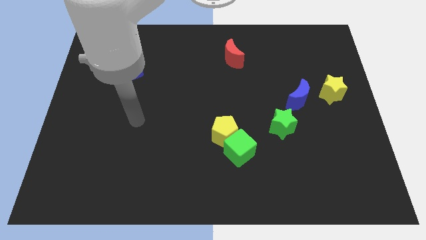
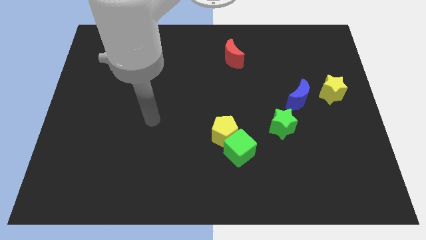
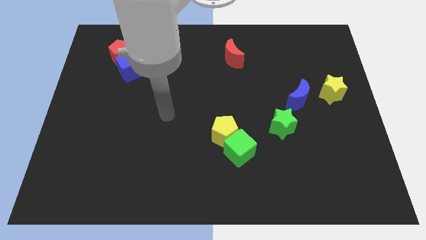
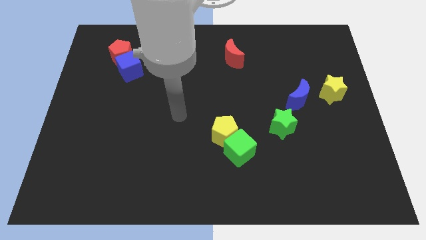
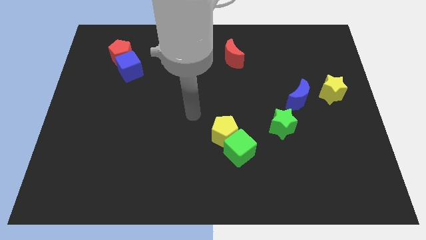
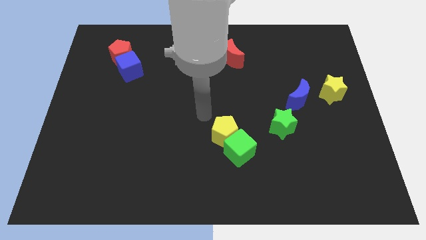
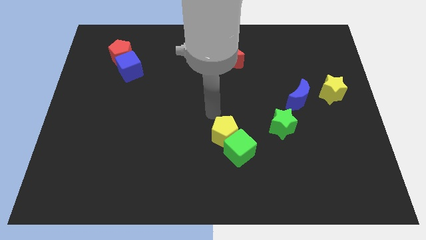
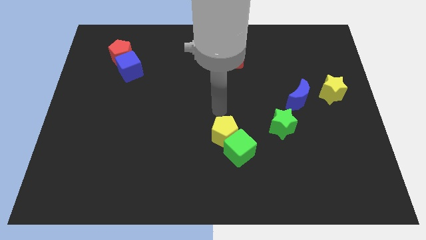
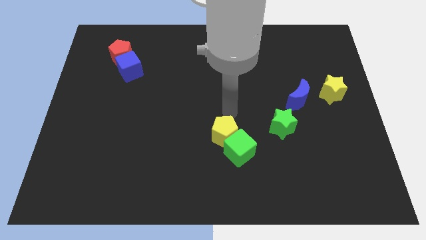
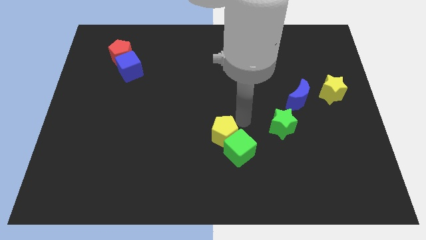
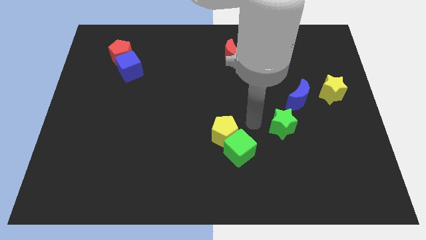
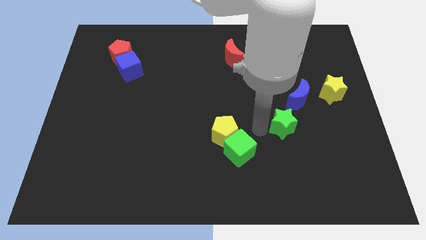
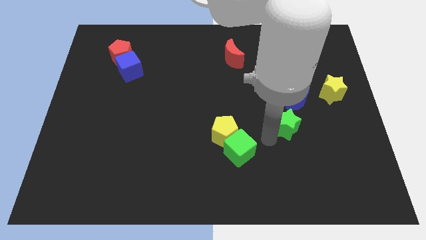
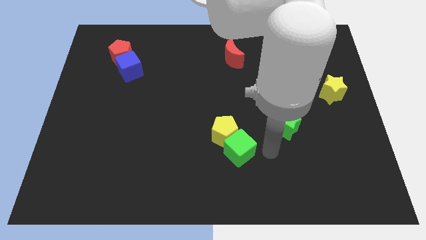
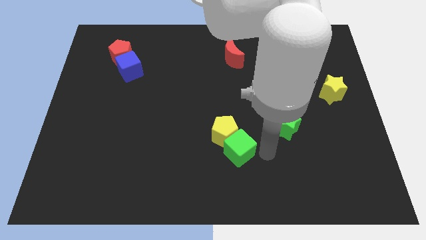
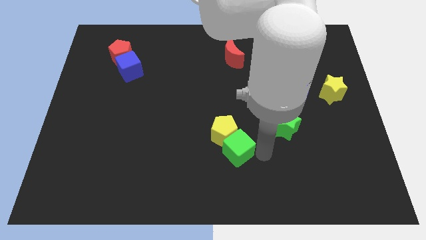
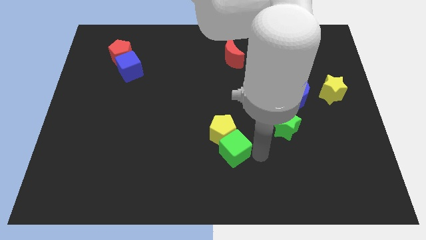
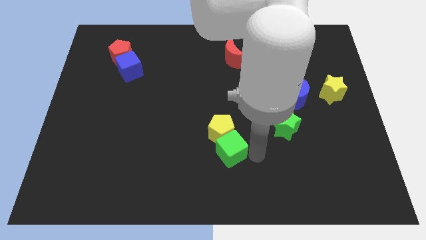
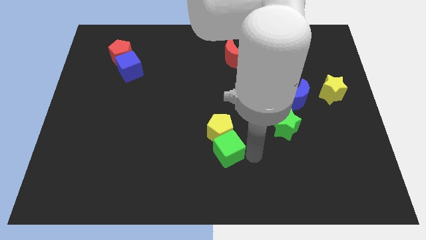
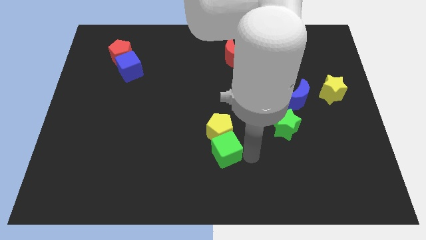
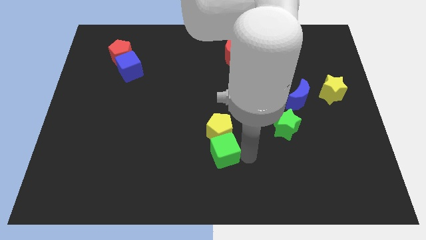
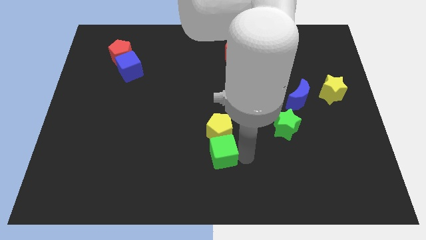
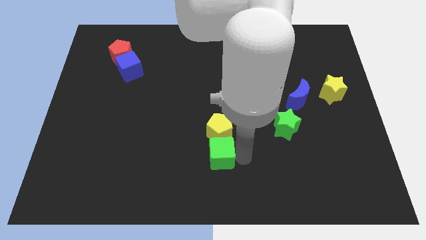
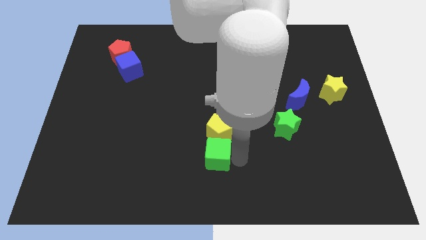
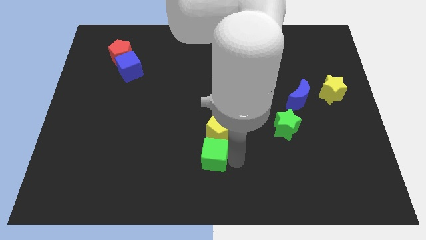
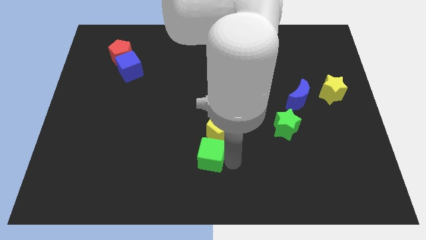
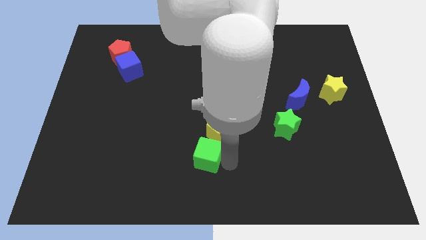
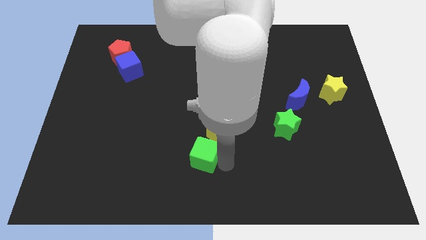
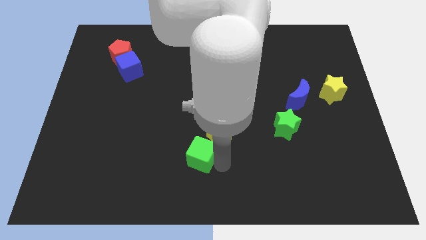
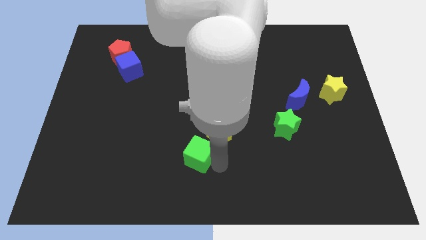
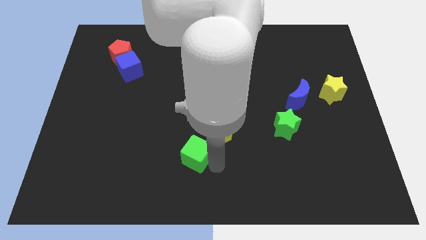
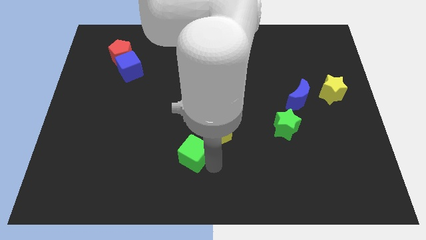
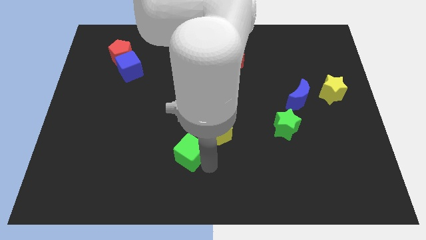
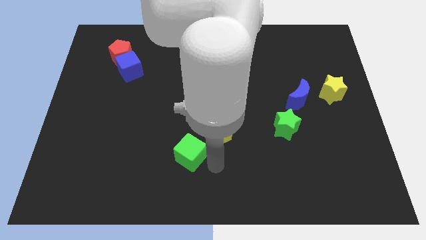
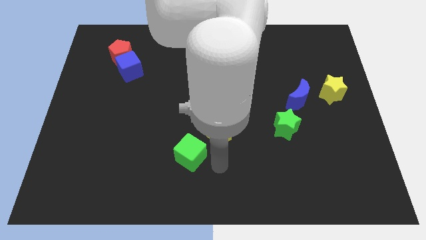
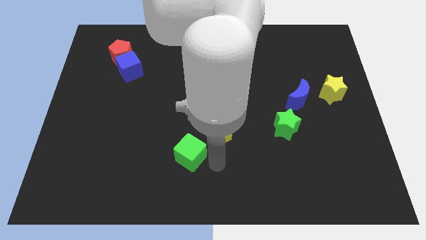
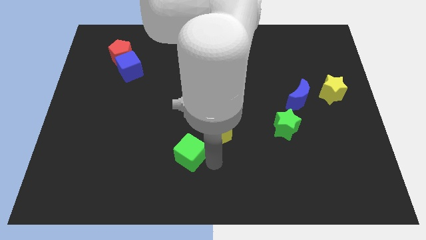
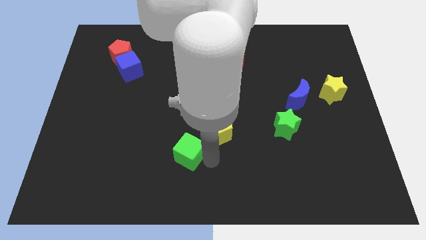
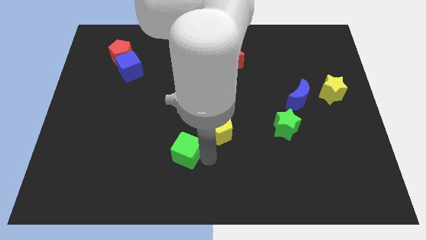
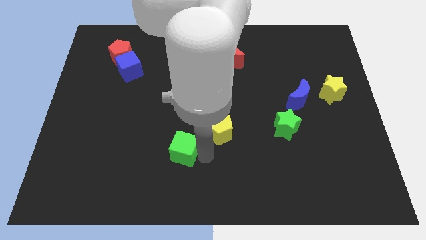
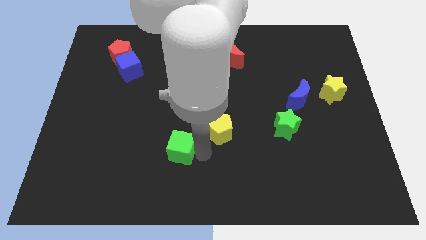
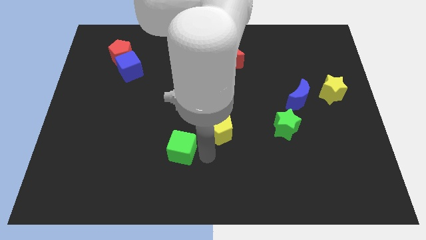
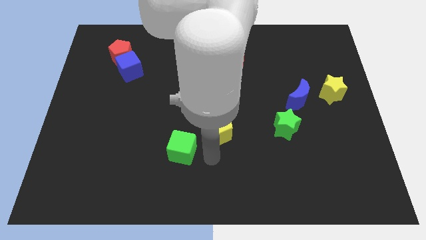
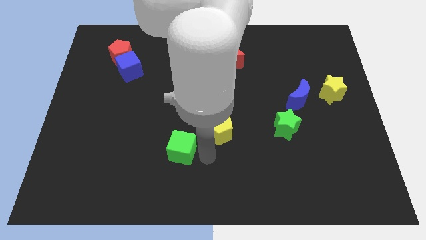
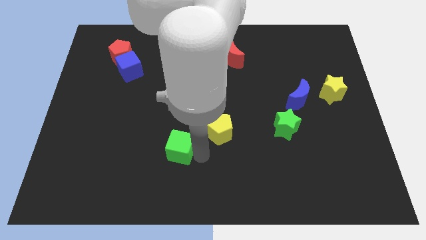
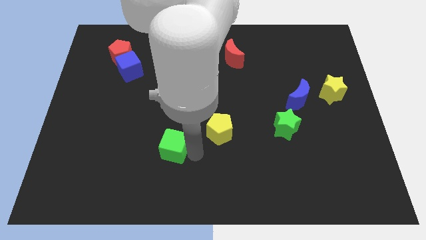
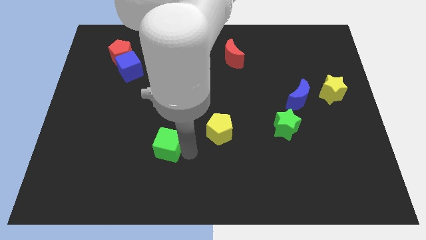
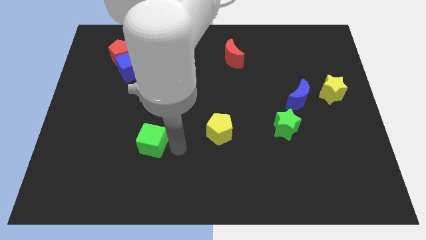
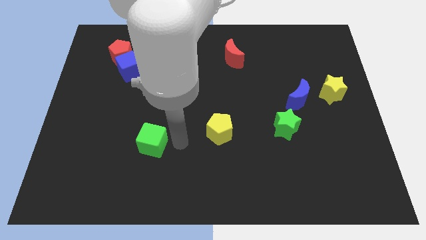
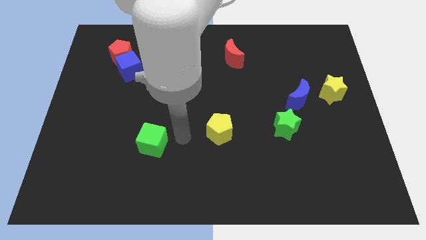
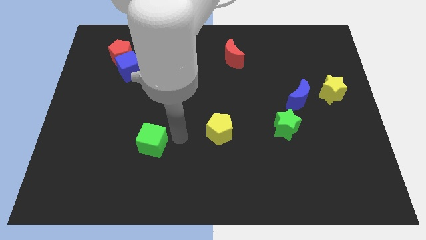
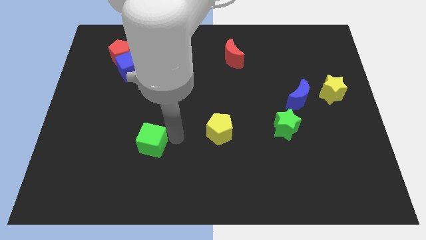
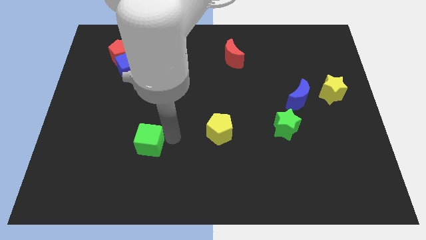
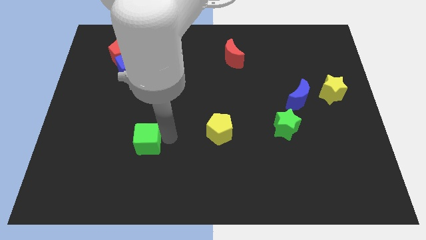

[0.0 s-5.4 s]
move the green cube left

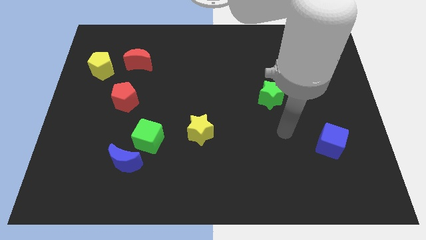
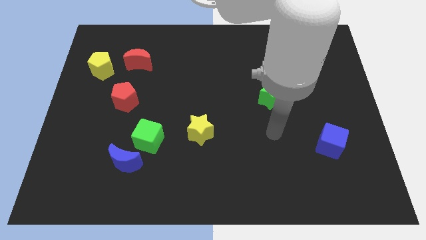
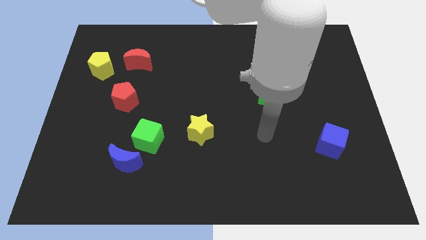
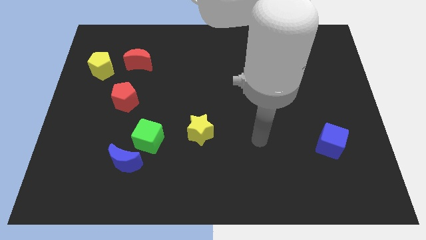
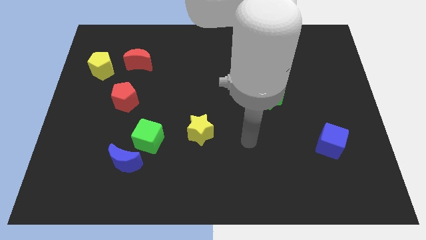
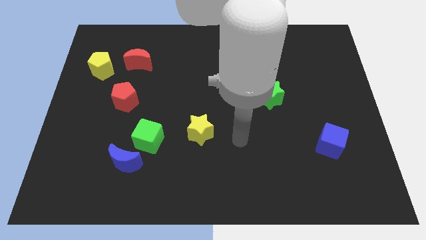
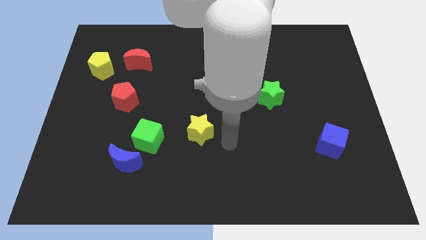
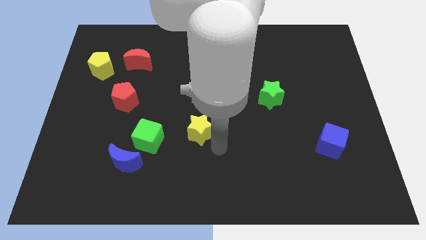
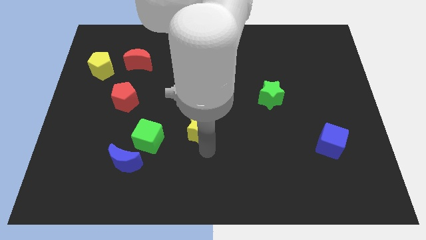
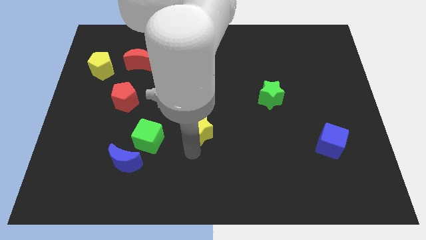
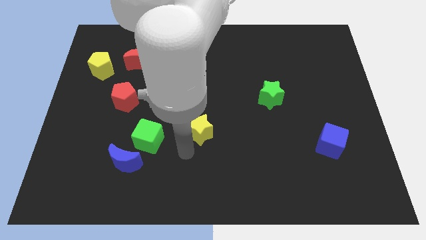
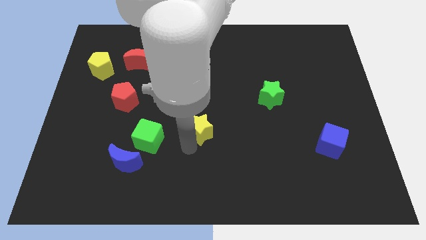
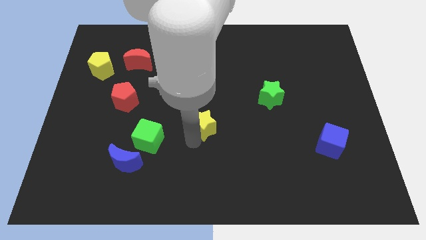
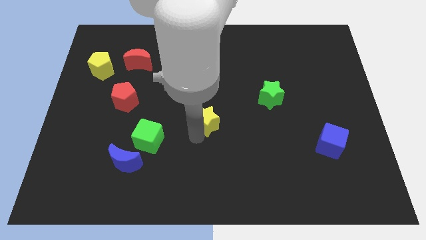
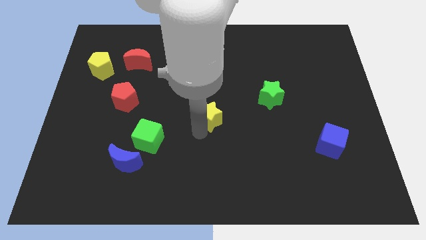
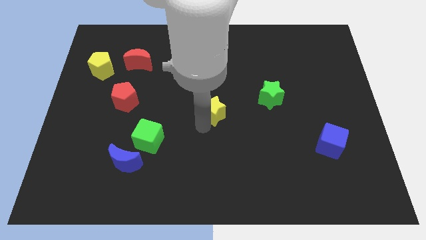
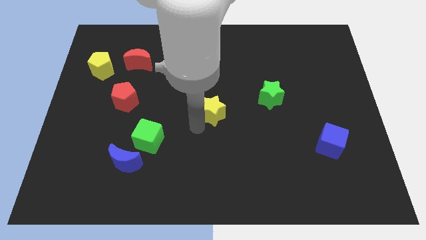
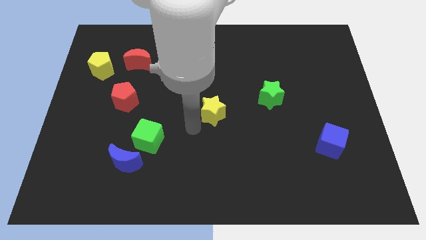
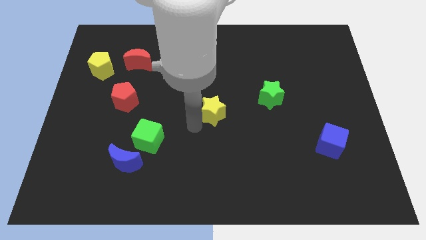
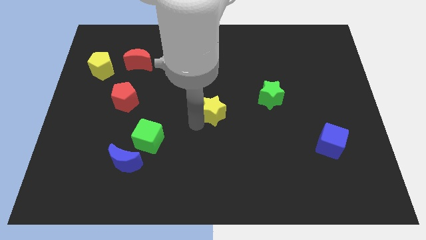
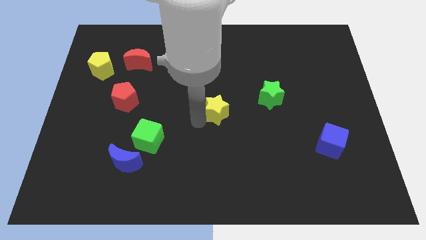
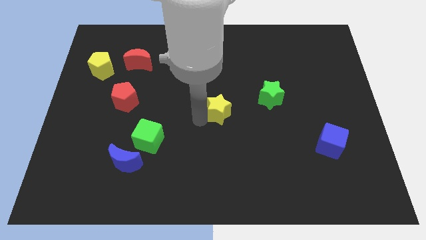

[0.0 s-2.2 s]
push the yellow star upwards and to the right a bit

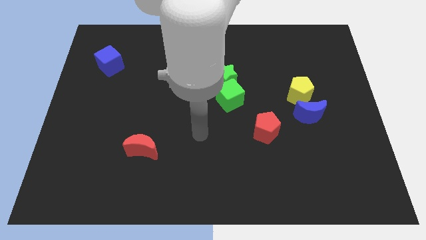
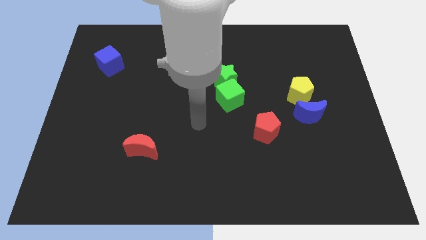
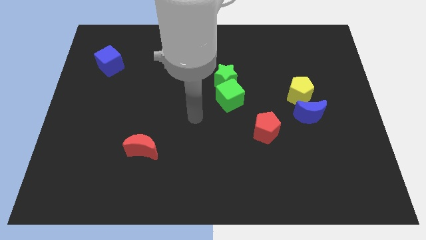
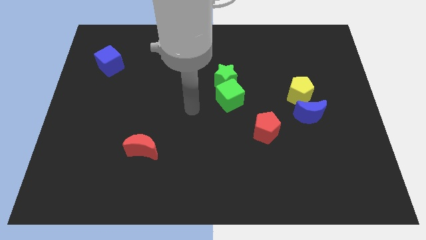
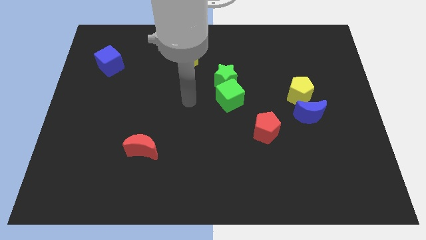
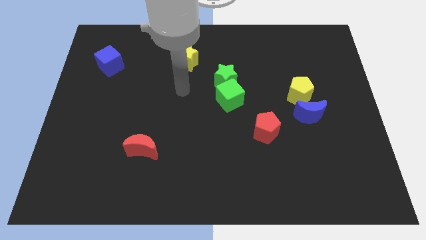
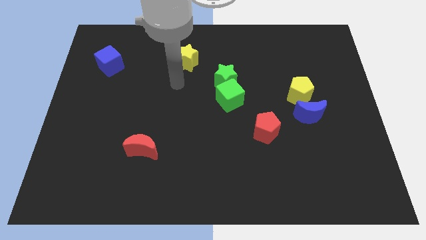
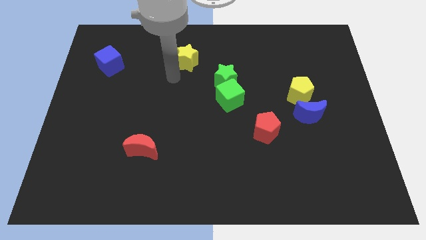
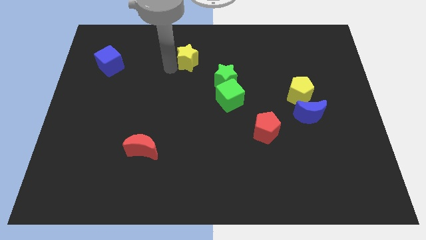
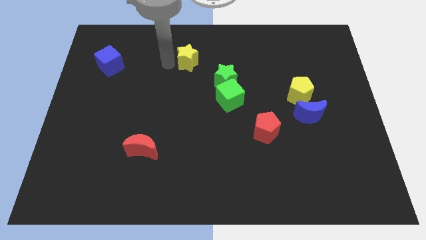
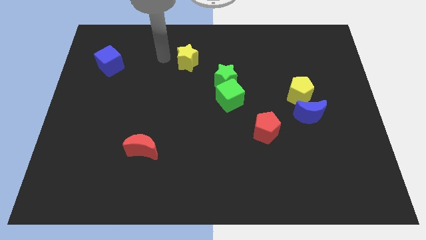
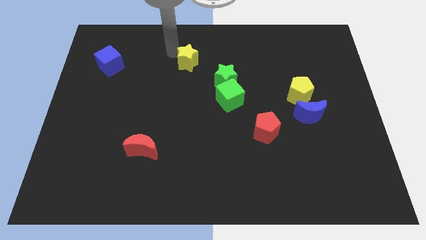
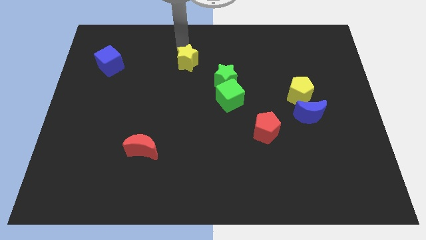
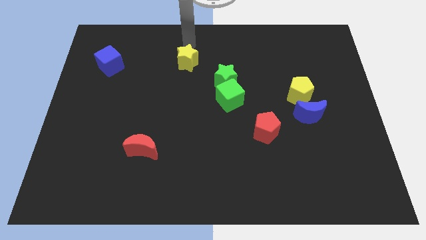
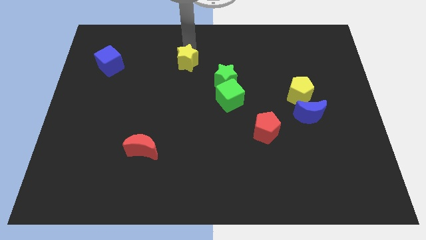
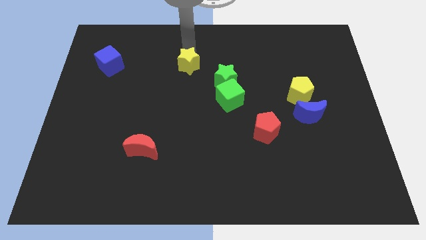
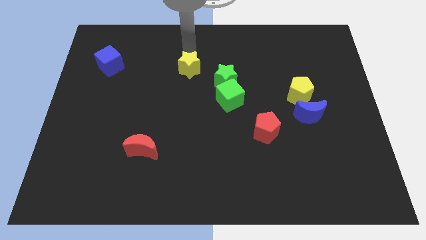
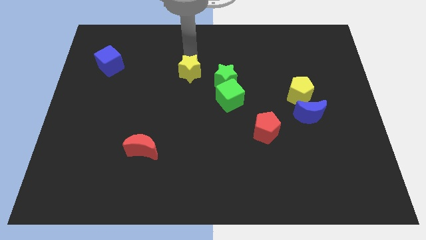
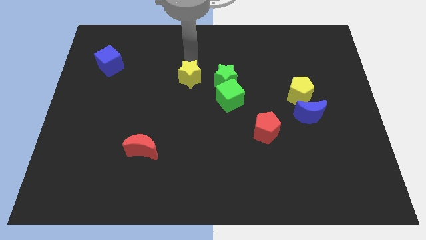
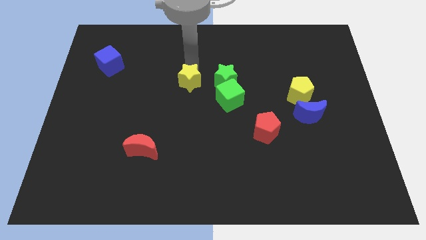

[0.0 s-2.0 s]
push the yellow star down a little bit
